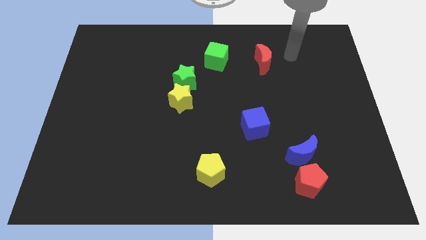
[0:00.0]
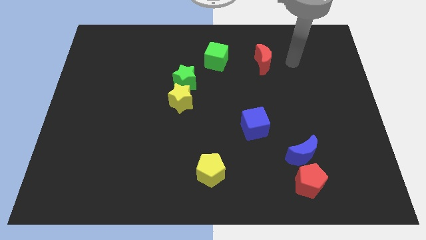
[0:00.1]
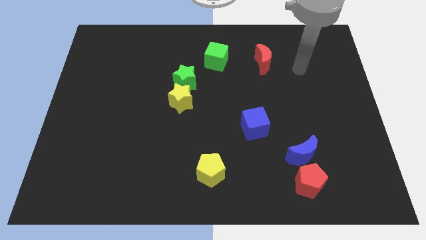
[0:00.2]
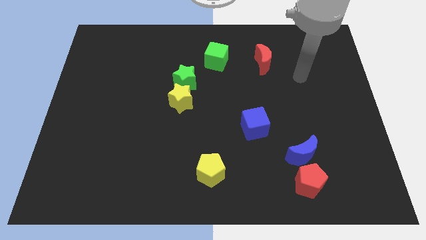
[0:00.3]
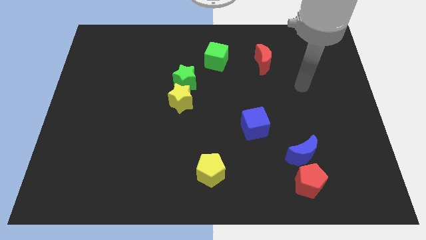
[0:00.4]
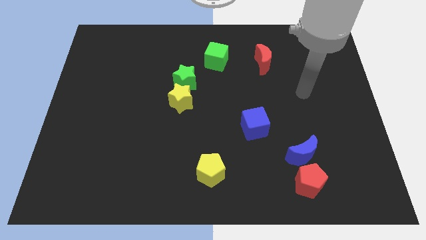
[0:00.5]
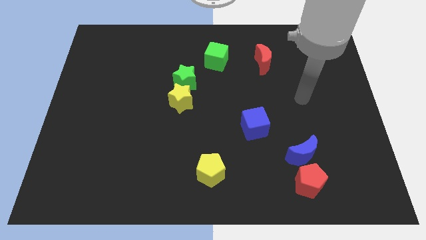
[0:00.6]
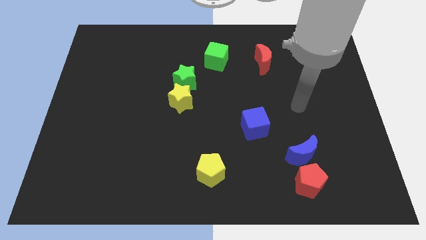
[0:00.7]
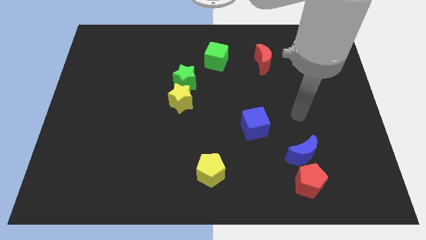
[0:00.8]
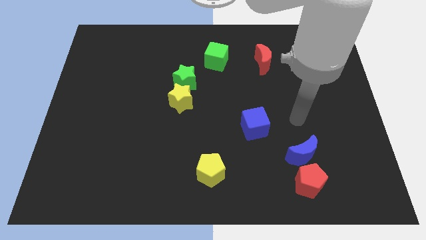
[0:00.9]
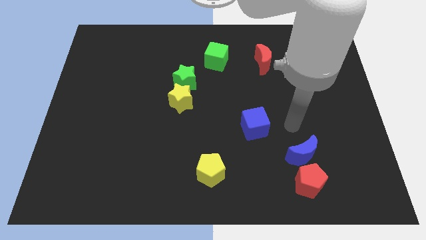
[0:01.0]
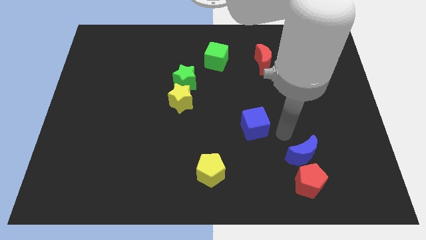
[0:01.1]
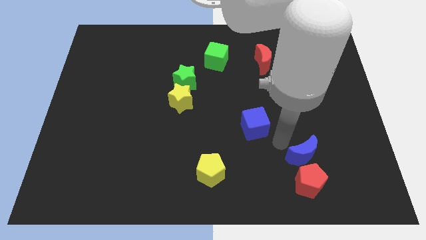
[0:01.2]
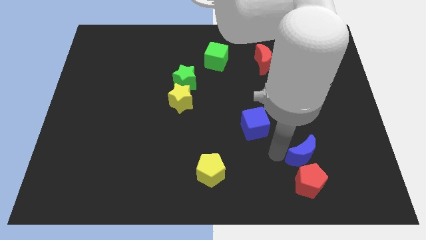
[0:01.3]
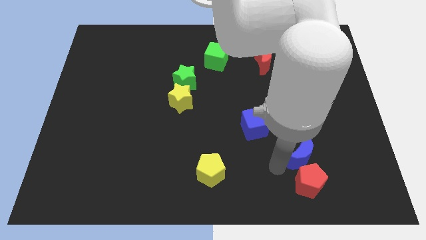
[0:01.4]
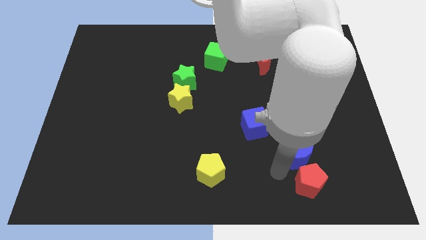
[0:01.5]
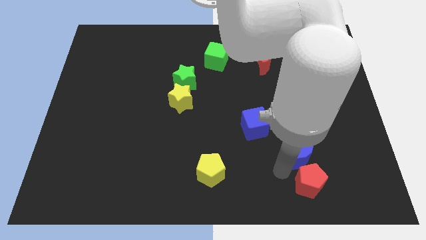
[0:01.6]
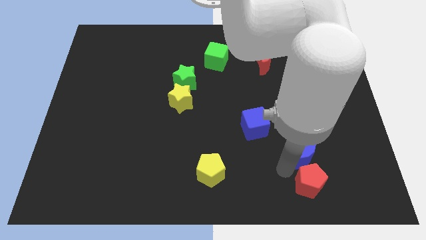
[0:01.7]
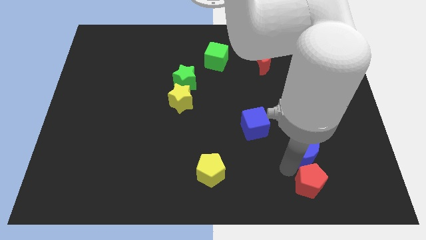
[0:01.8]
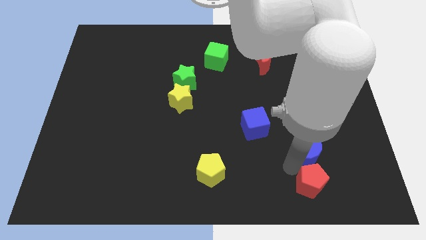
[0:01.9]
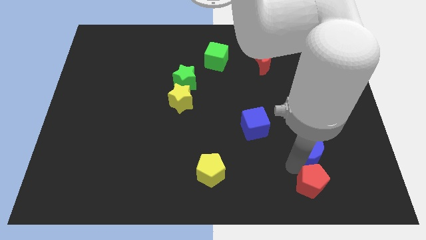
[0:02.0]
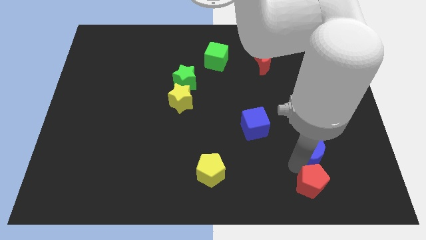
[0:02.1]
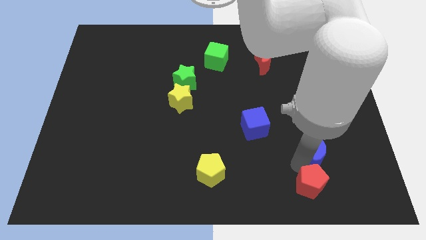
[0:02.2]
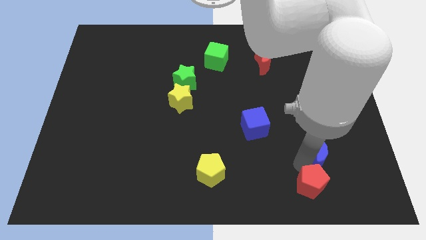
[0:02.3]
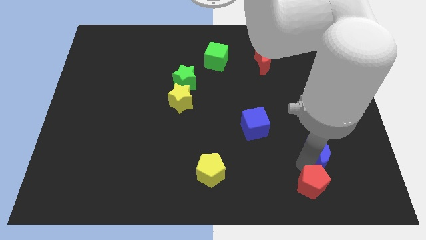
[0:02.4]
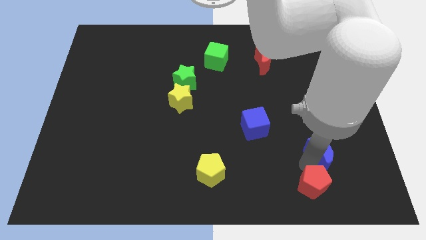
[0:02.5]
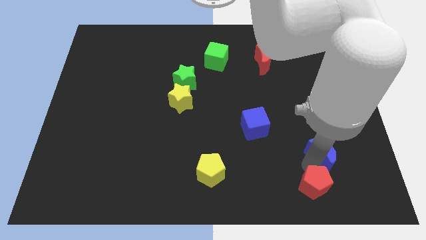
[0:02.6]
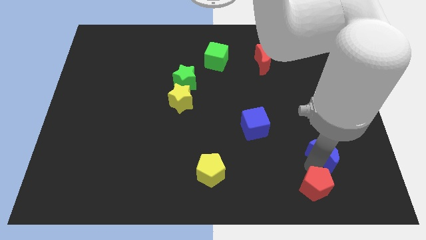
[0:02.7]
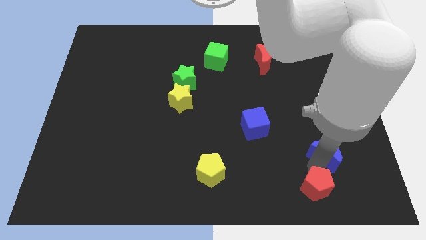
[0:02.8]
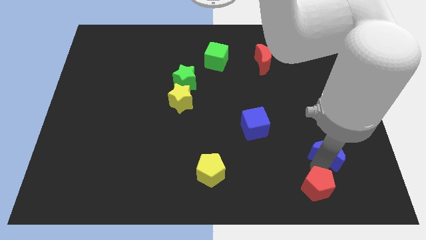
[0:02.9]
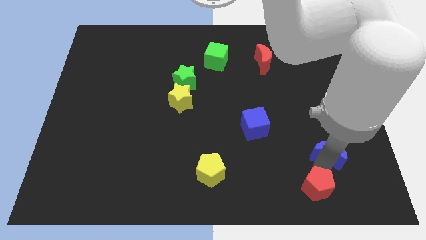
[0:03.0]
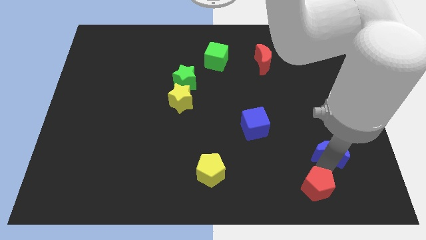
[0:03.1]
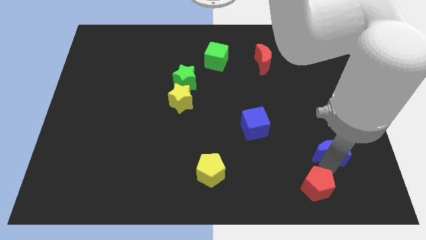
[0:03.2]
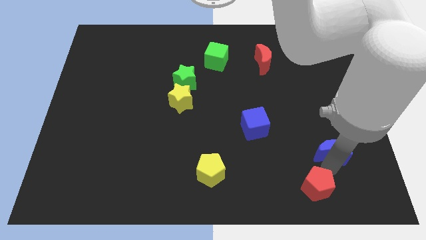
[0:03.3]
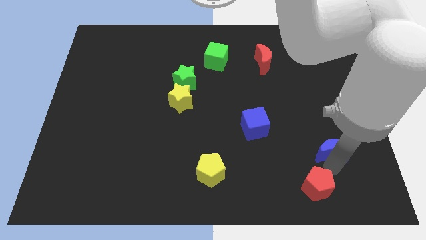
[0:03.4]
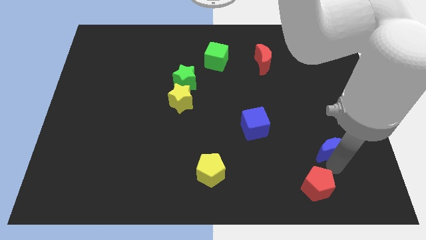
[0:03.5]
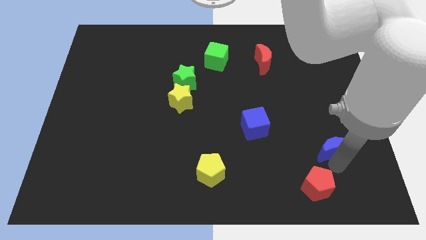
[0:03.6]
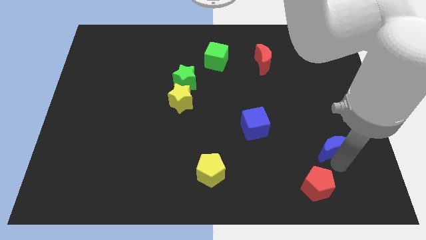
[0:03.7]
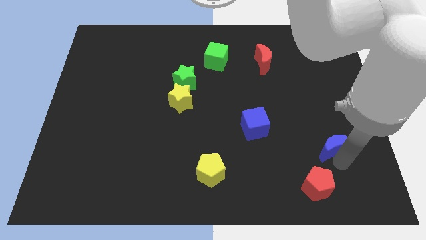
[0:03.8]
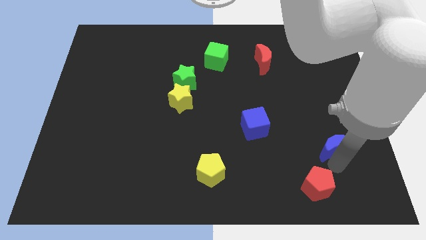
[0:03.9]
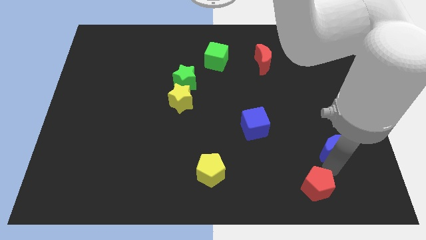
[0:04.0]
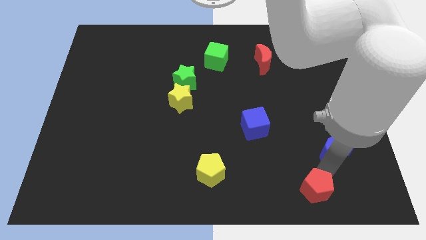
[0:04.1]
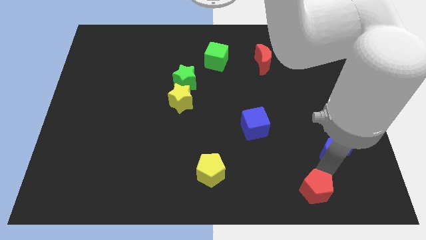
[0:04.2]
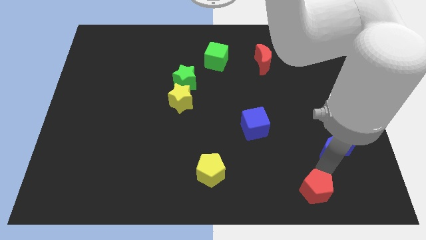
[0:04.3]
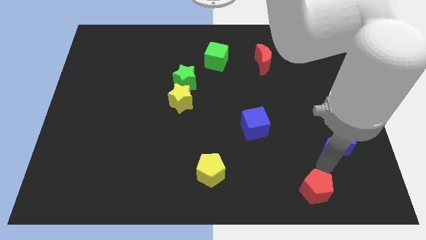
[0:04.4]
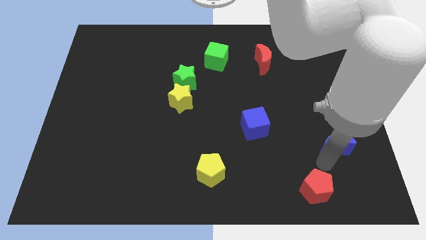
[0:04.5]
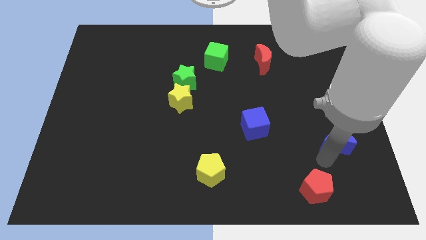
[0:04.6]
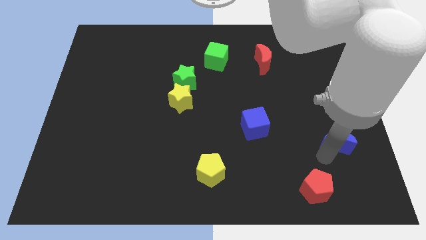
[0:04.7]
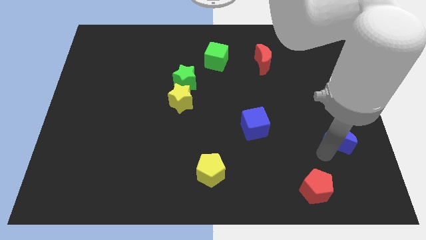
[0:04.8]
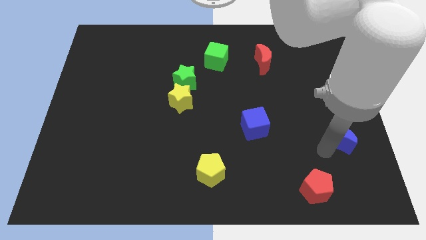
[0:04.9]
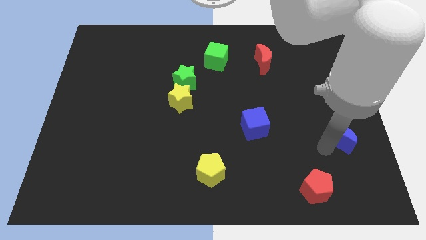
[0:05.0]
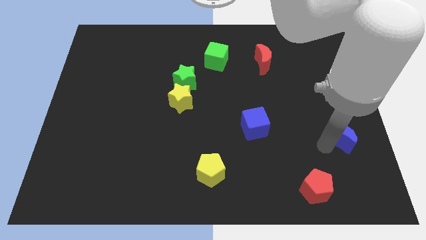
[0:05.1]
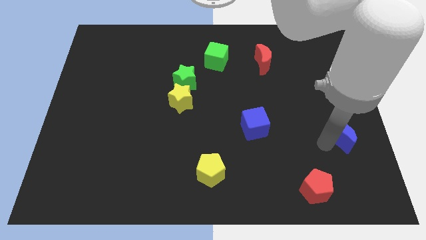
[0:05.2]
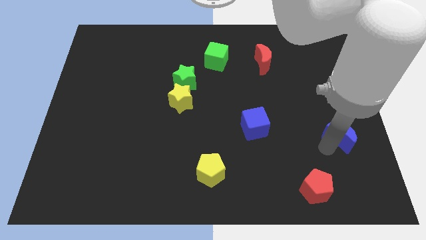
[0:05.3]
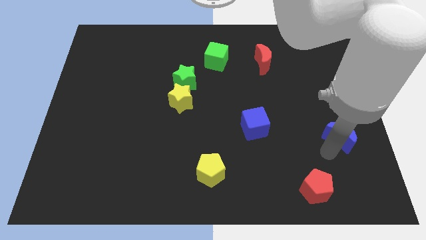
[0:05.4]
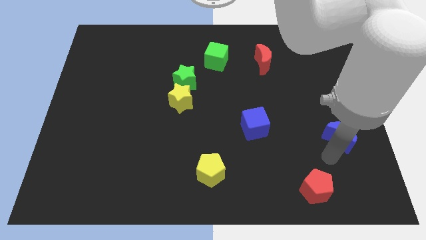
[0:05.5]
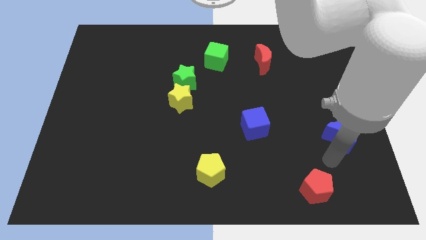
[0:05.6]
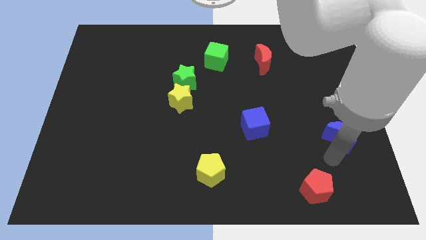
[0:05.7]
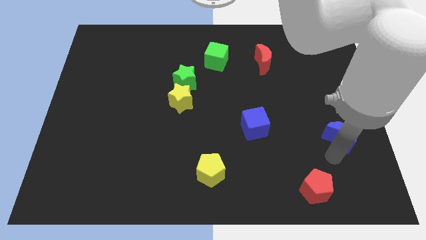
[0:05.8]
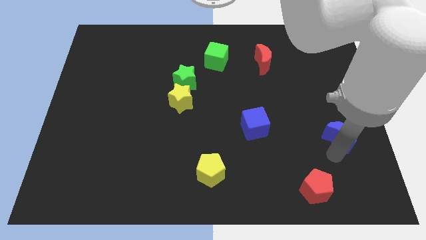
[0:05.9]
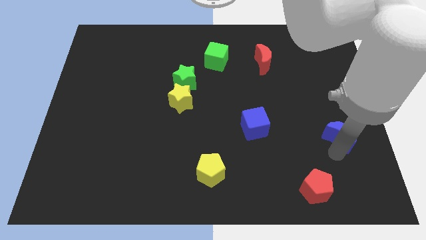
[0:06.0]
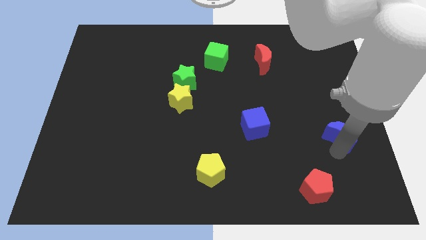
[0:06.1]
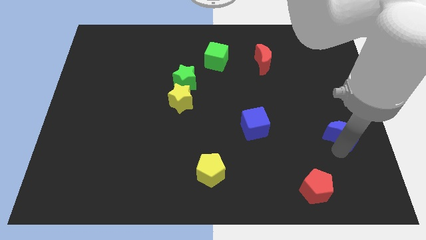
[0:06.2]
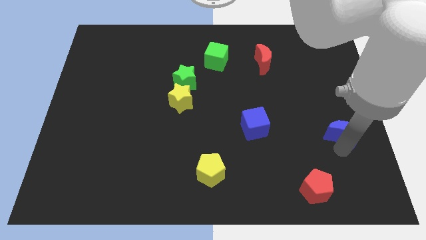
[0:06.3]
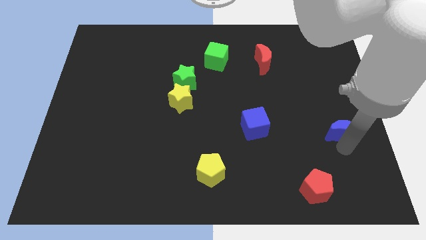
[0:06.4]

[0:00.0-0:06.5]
push the blue moon to the right side of the board

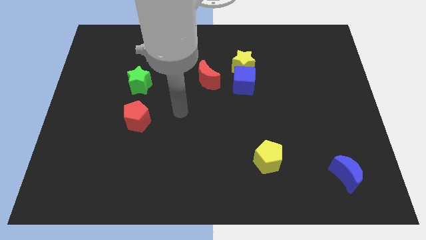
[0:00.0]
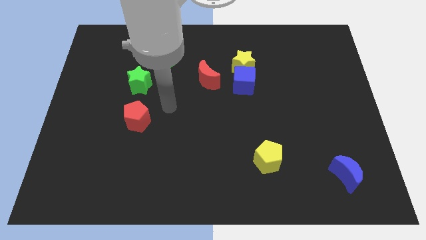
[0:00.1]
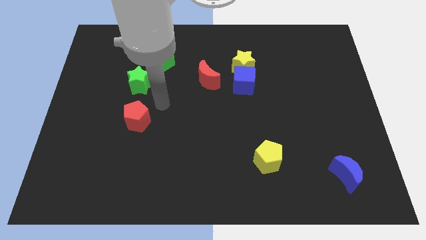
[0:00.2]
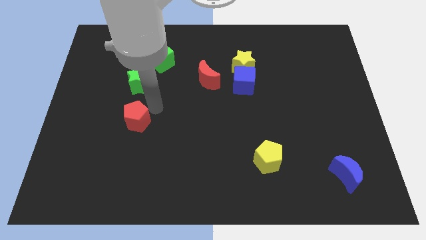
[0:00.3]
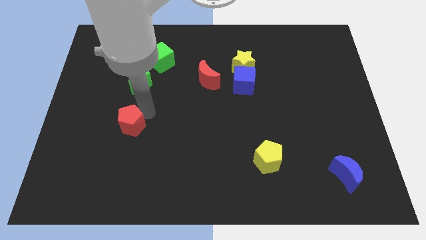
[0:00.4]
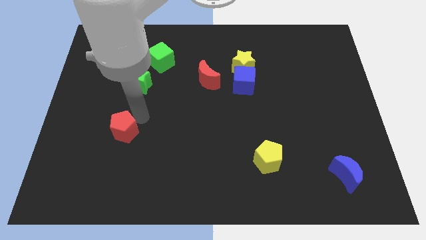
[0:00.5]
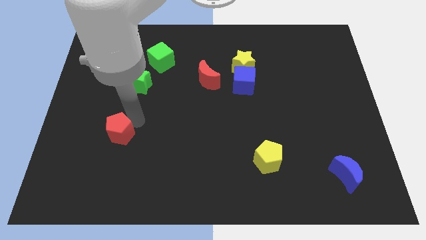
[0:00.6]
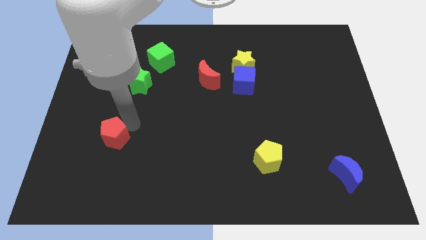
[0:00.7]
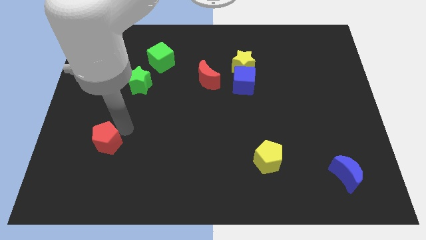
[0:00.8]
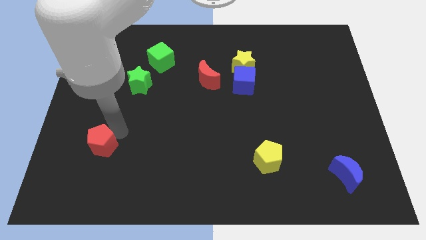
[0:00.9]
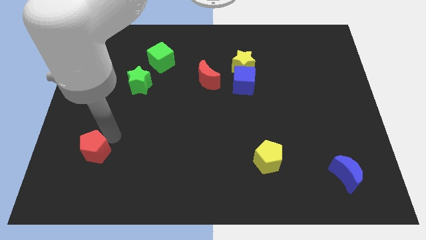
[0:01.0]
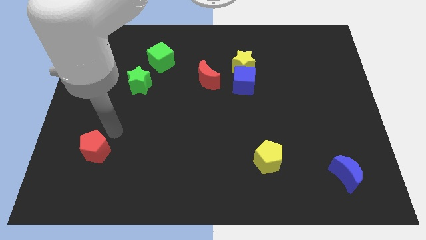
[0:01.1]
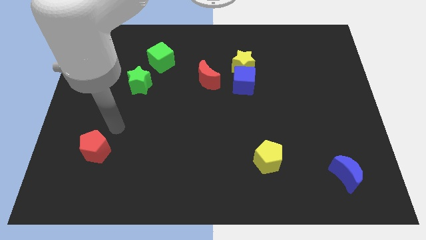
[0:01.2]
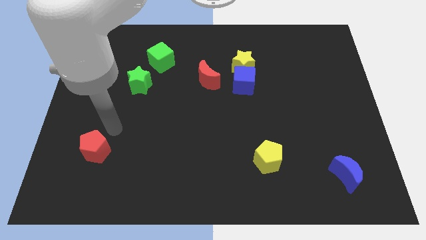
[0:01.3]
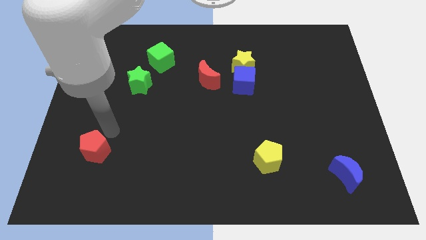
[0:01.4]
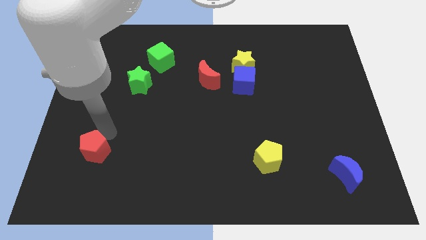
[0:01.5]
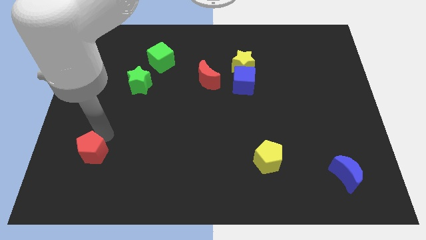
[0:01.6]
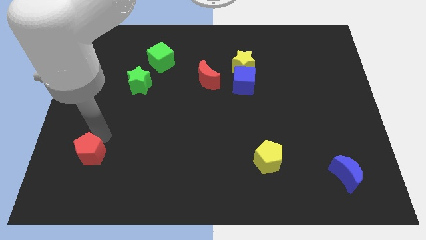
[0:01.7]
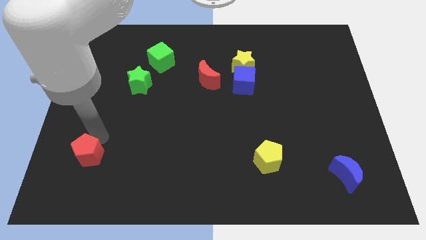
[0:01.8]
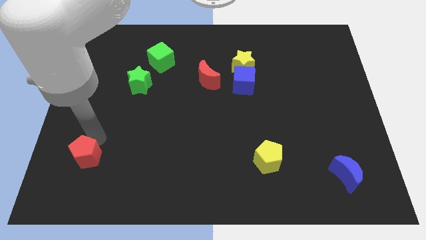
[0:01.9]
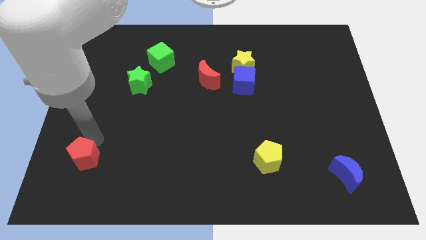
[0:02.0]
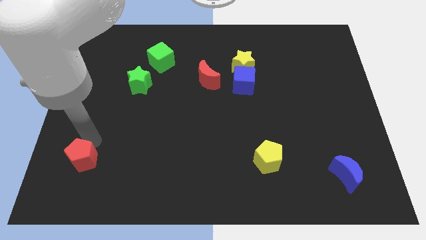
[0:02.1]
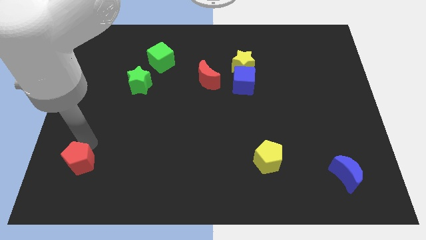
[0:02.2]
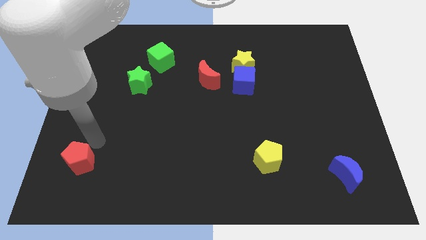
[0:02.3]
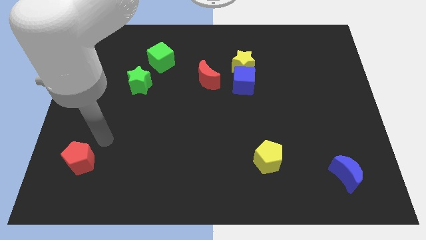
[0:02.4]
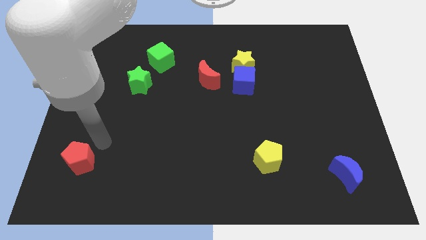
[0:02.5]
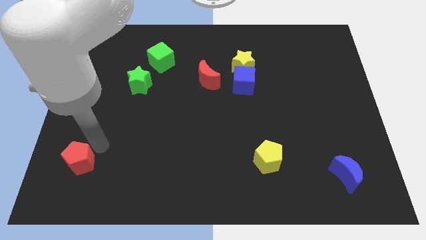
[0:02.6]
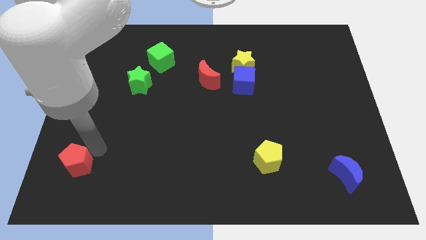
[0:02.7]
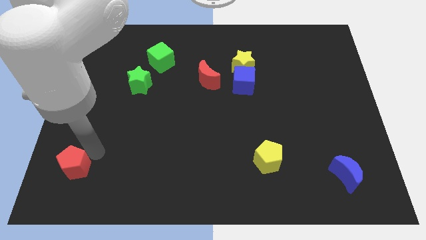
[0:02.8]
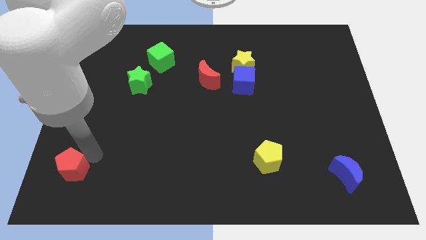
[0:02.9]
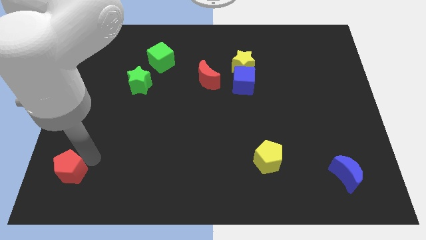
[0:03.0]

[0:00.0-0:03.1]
slide the red pentagon to the lower left corner
